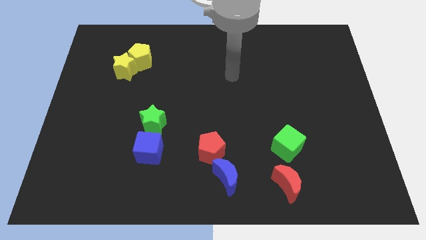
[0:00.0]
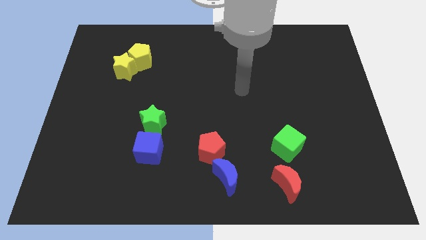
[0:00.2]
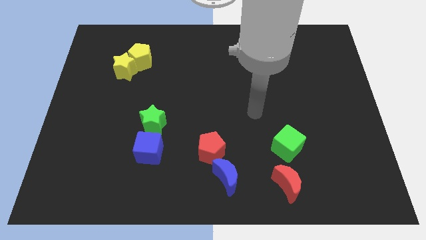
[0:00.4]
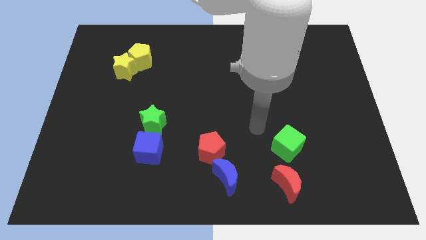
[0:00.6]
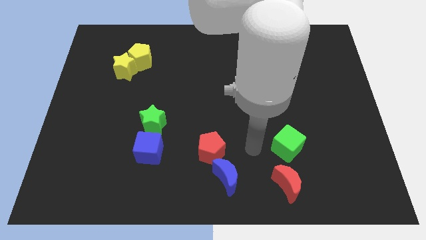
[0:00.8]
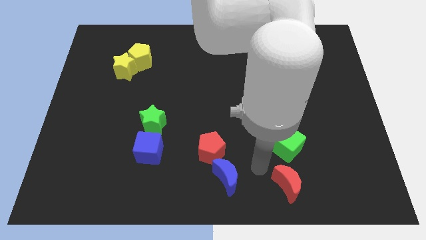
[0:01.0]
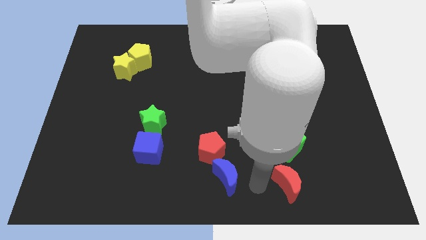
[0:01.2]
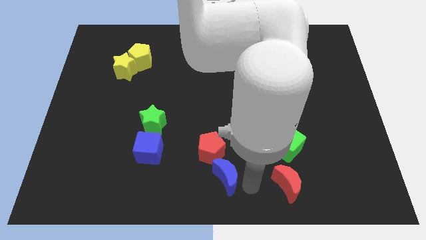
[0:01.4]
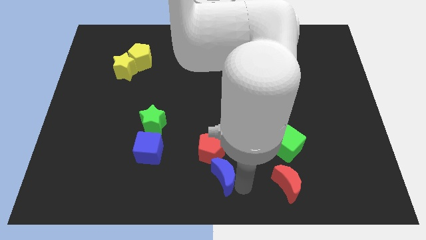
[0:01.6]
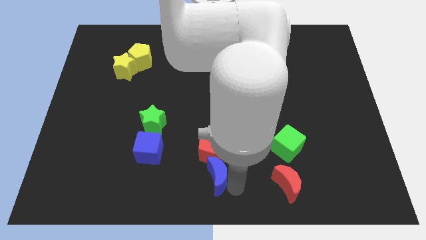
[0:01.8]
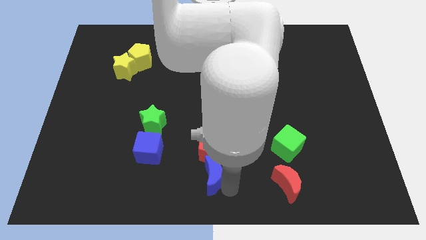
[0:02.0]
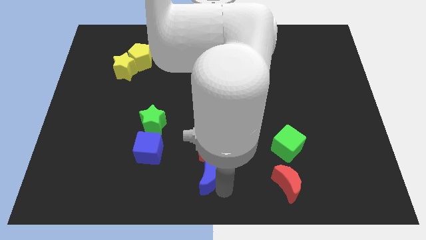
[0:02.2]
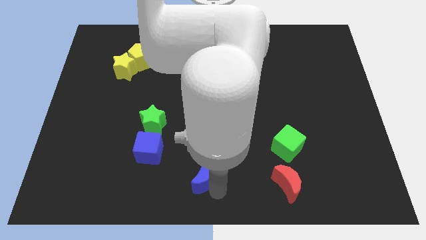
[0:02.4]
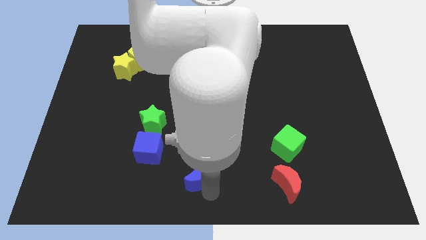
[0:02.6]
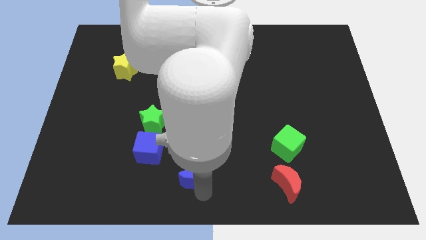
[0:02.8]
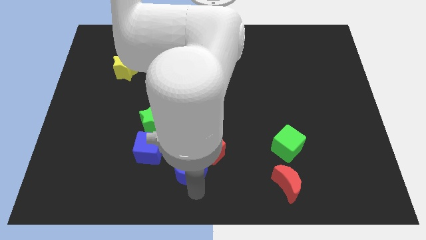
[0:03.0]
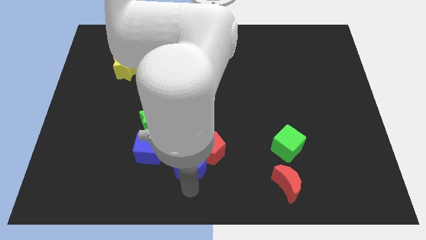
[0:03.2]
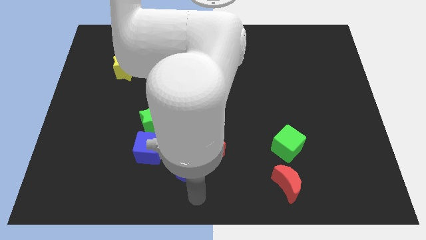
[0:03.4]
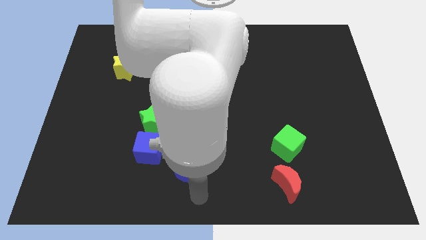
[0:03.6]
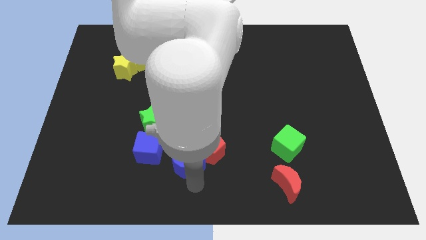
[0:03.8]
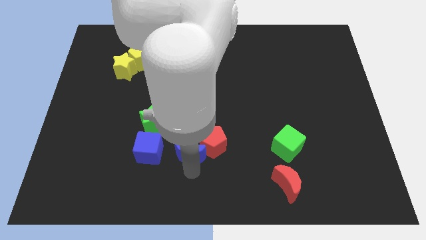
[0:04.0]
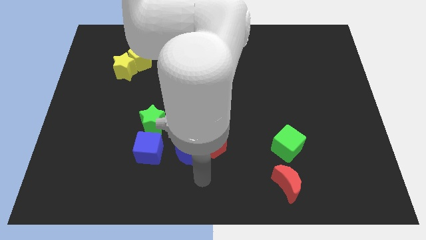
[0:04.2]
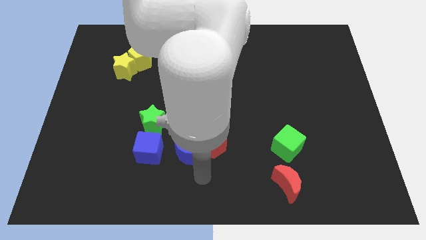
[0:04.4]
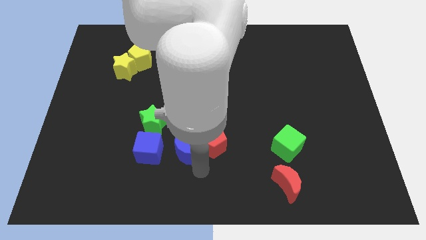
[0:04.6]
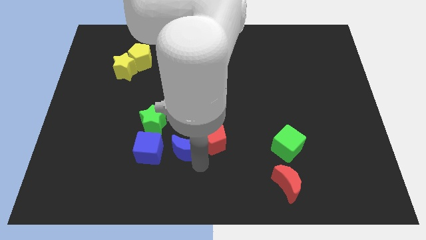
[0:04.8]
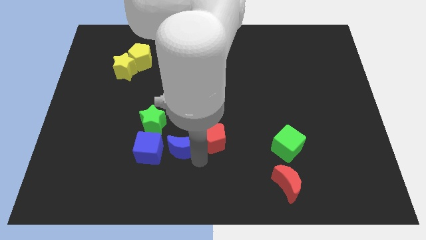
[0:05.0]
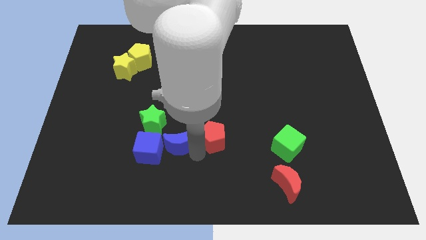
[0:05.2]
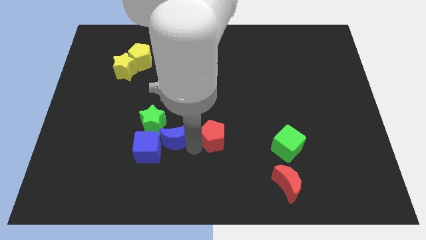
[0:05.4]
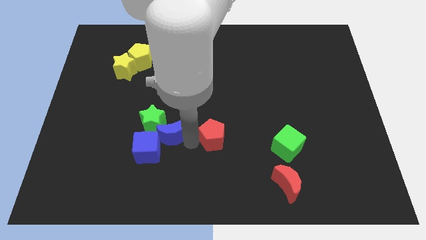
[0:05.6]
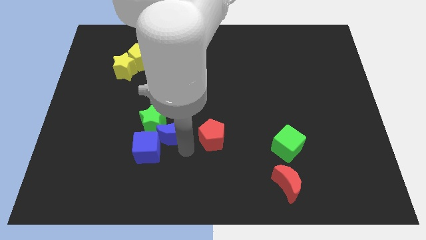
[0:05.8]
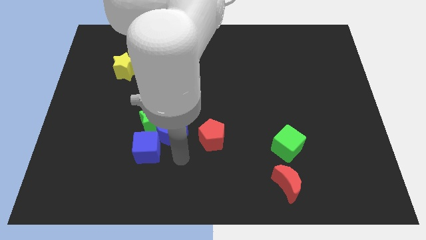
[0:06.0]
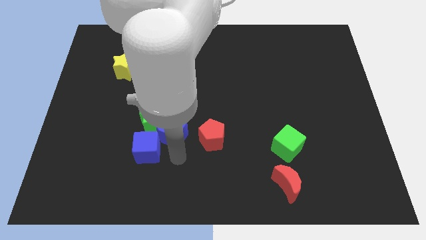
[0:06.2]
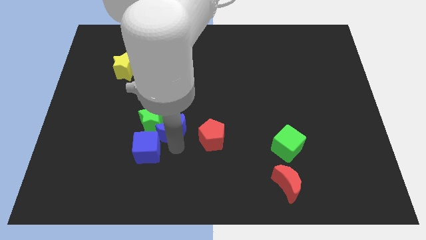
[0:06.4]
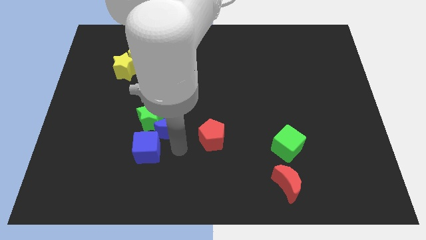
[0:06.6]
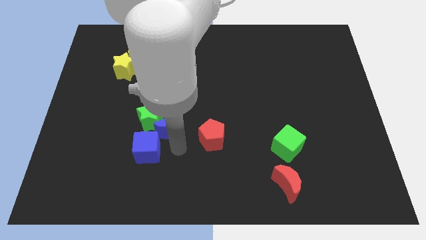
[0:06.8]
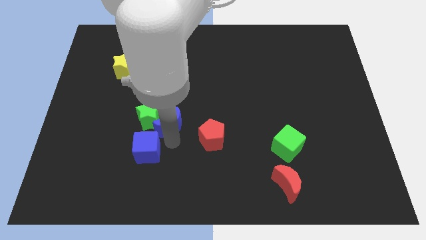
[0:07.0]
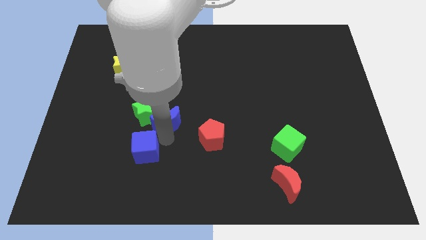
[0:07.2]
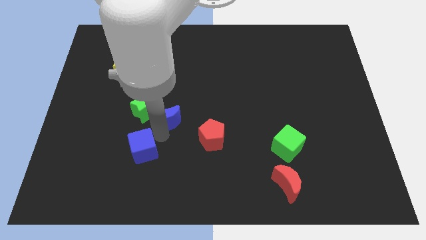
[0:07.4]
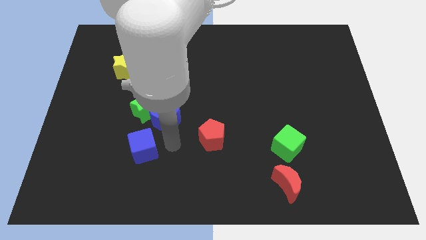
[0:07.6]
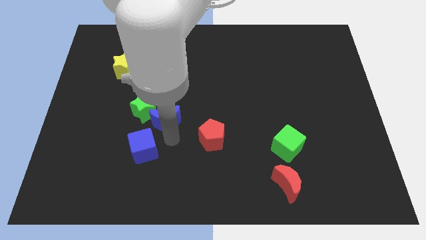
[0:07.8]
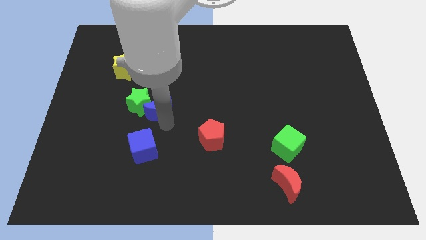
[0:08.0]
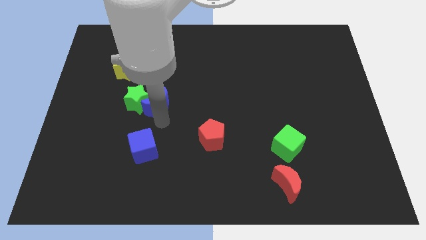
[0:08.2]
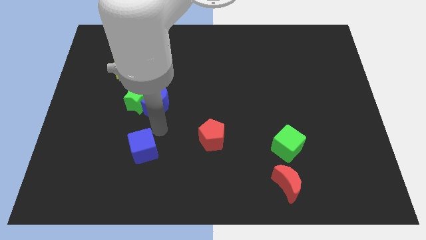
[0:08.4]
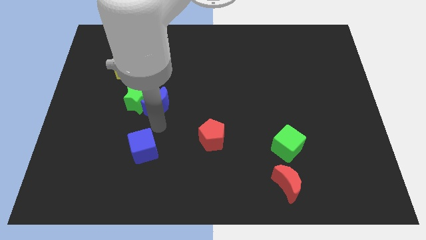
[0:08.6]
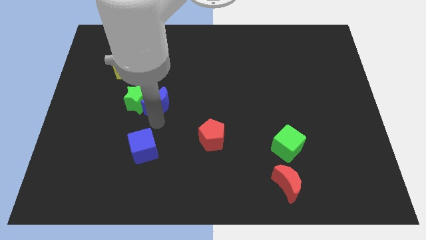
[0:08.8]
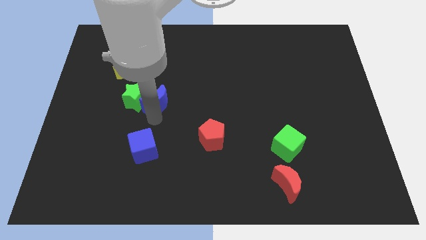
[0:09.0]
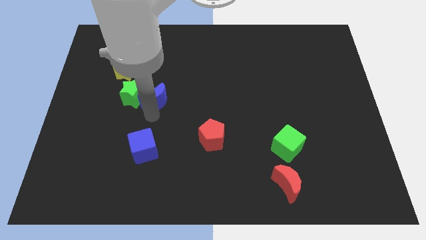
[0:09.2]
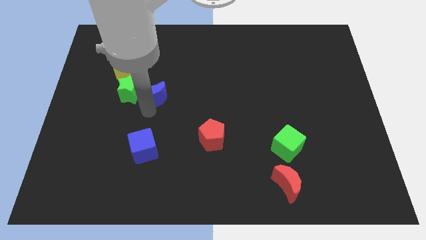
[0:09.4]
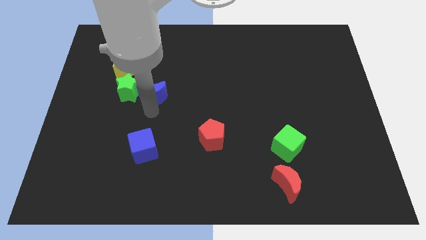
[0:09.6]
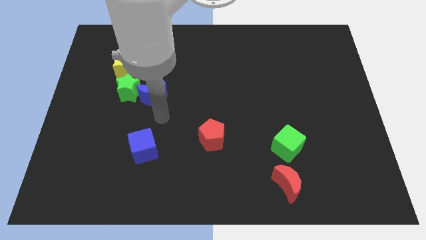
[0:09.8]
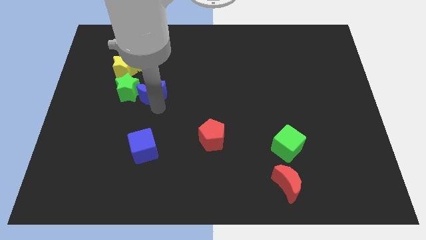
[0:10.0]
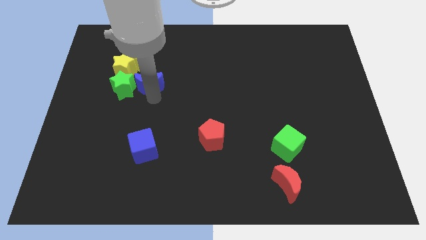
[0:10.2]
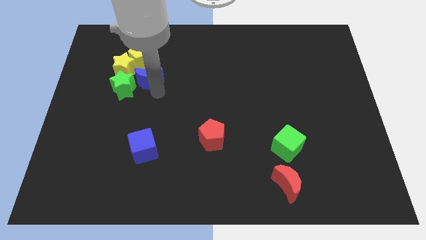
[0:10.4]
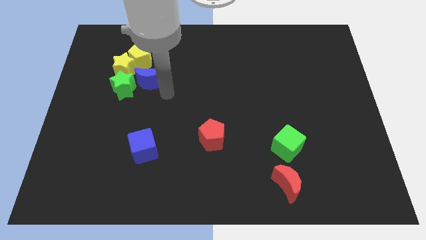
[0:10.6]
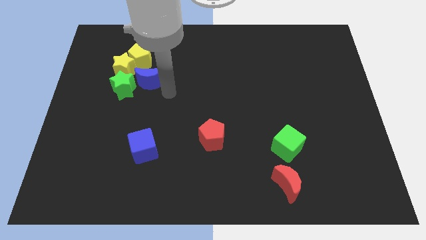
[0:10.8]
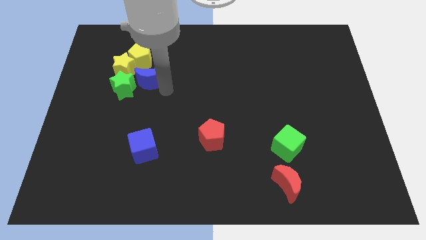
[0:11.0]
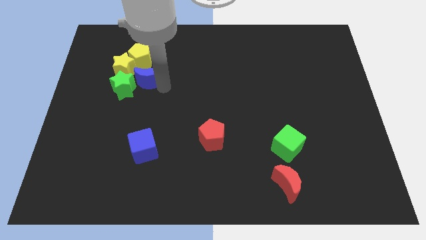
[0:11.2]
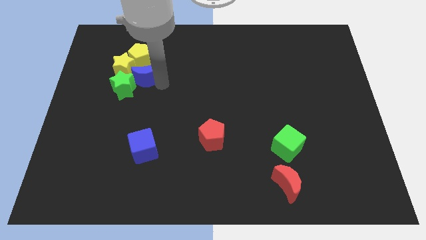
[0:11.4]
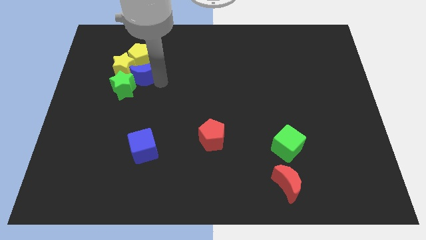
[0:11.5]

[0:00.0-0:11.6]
slide the blue moon next to the yellow star

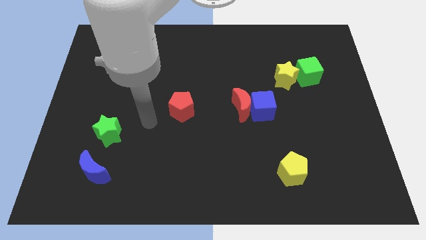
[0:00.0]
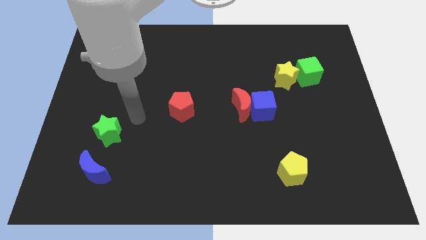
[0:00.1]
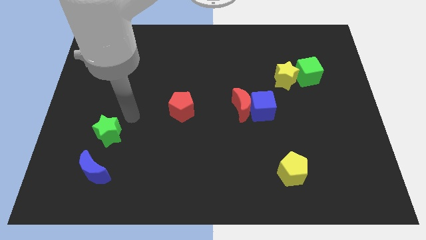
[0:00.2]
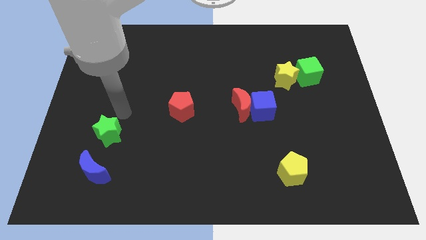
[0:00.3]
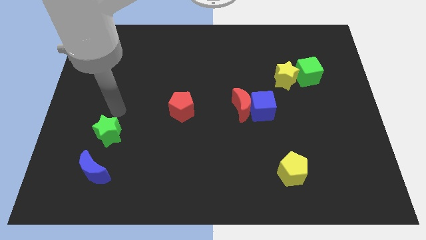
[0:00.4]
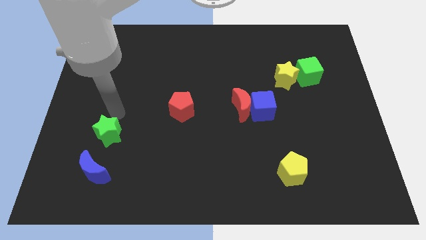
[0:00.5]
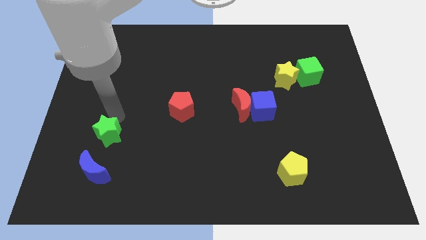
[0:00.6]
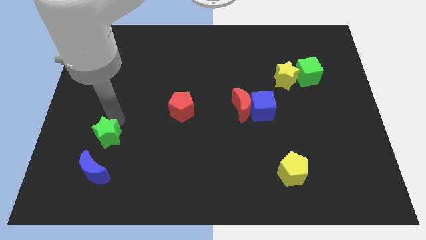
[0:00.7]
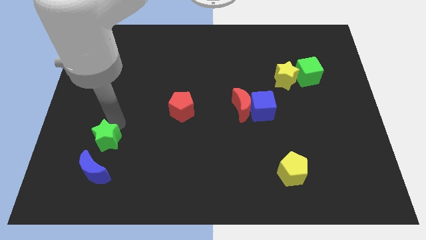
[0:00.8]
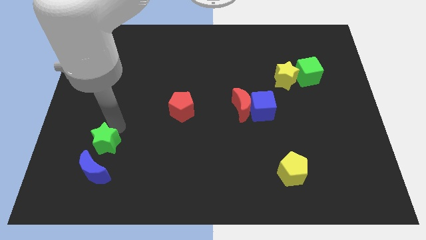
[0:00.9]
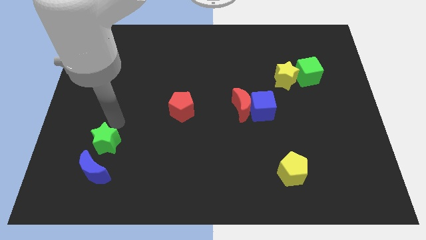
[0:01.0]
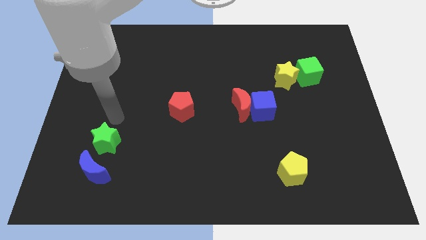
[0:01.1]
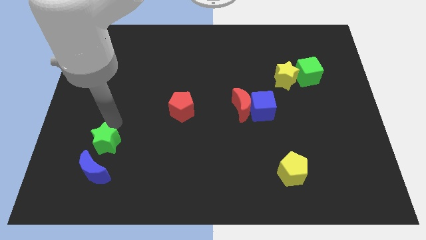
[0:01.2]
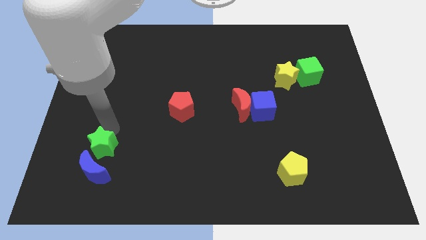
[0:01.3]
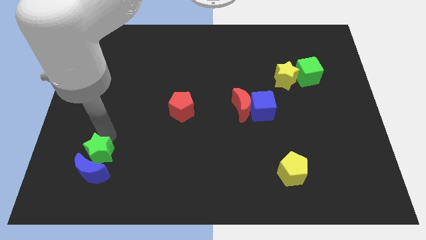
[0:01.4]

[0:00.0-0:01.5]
slide the green star towards the blue moon
